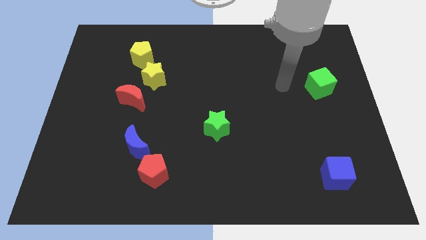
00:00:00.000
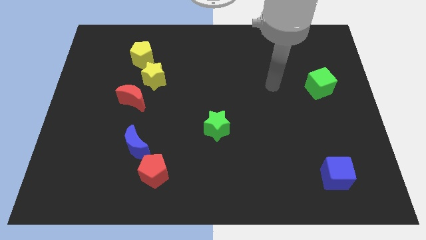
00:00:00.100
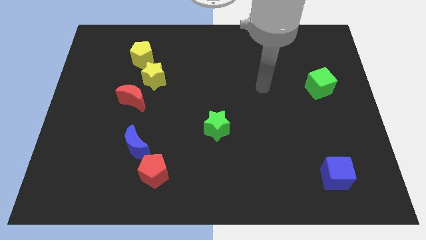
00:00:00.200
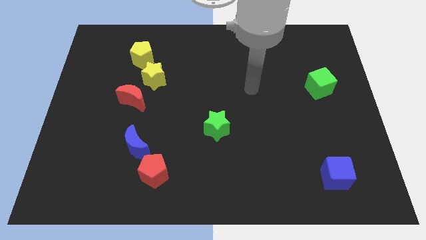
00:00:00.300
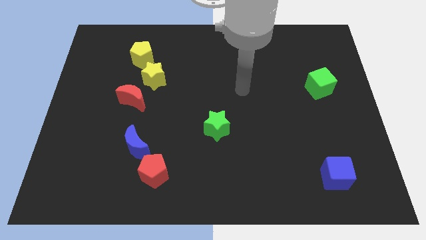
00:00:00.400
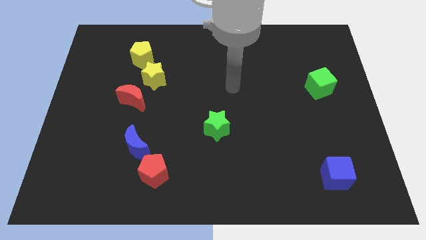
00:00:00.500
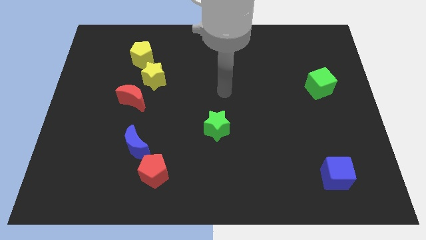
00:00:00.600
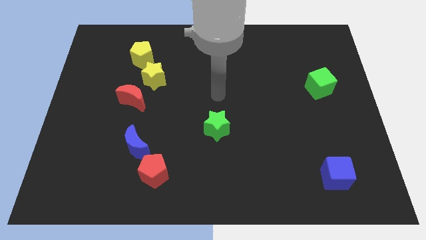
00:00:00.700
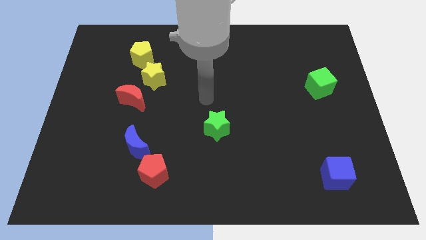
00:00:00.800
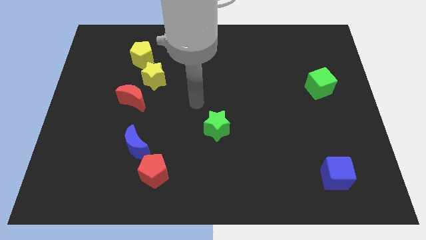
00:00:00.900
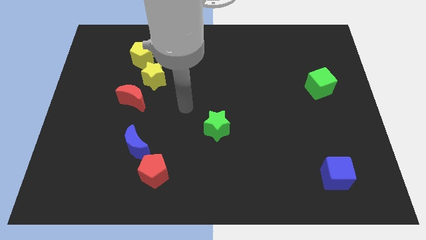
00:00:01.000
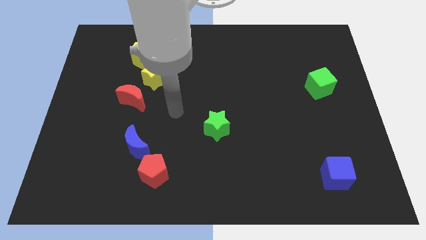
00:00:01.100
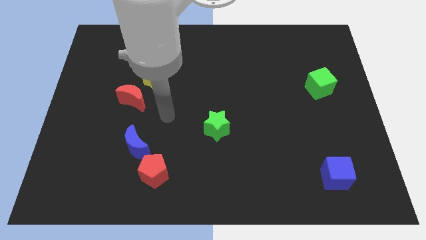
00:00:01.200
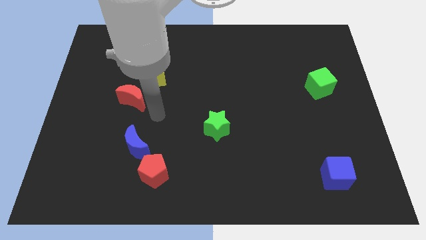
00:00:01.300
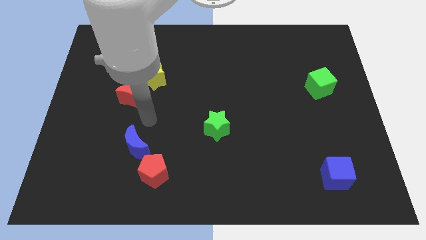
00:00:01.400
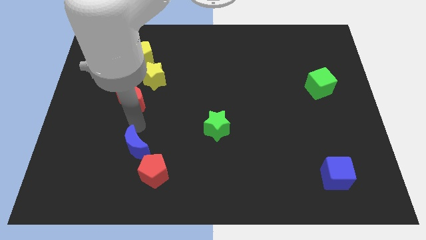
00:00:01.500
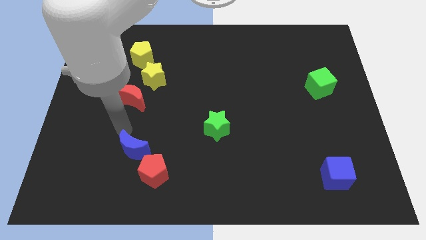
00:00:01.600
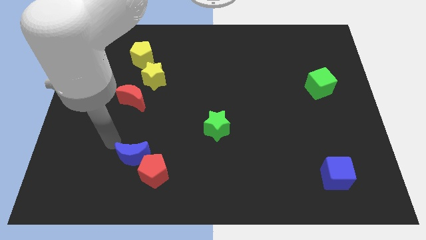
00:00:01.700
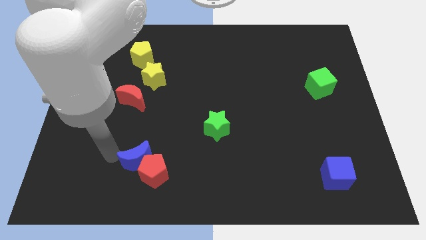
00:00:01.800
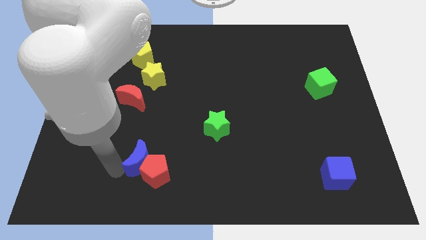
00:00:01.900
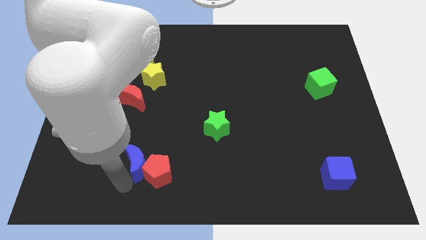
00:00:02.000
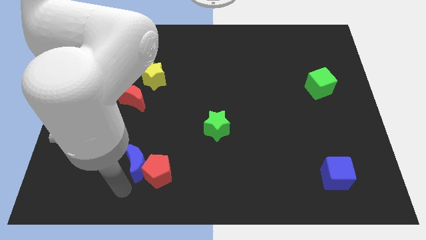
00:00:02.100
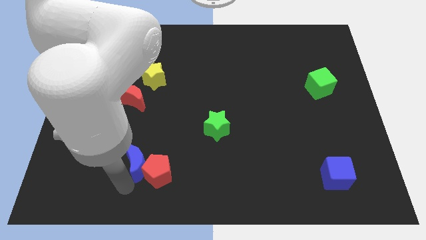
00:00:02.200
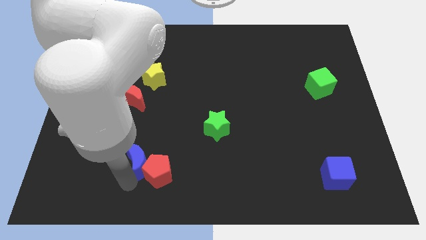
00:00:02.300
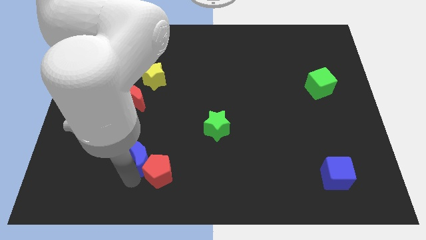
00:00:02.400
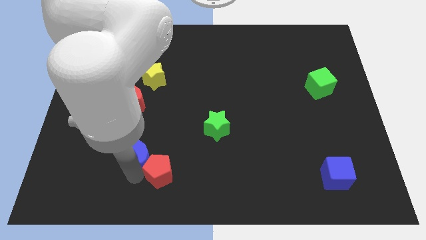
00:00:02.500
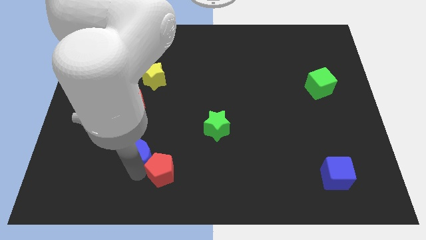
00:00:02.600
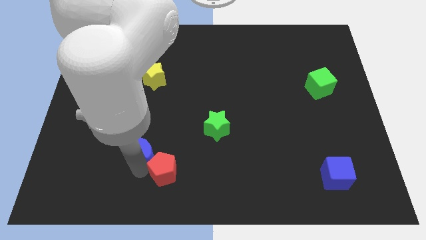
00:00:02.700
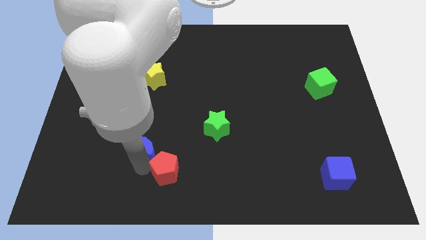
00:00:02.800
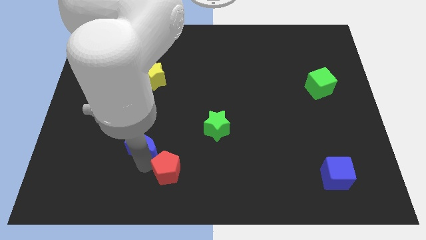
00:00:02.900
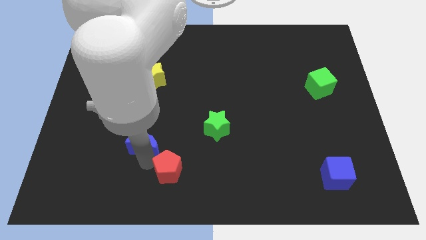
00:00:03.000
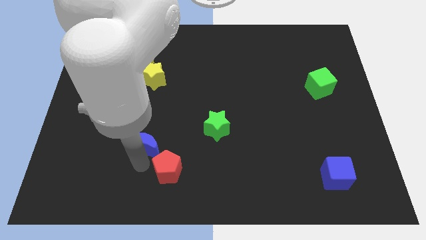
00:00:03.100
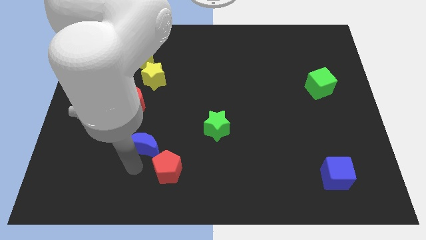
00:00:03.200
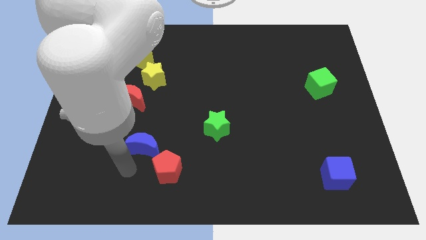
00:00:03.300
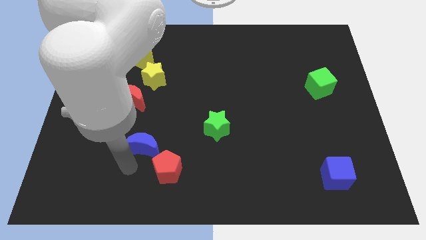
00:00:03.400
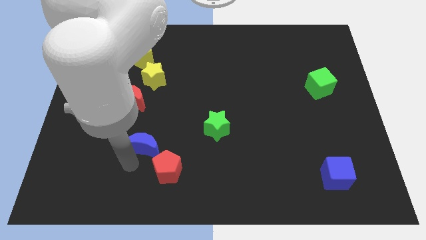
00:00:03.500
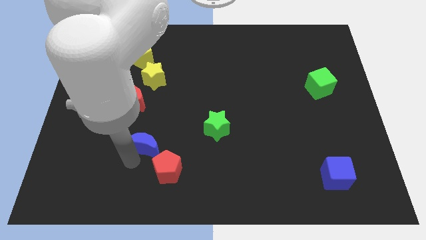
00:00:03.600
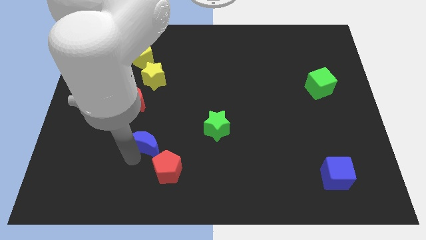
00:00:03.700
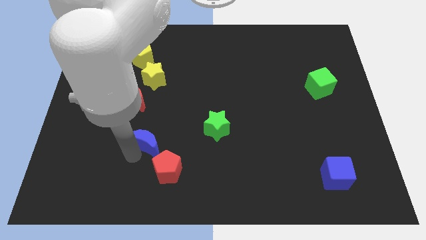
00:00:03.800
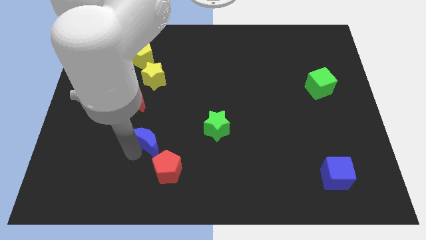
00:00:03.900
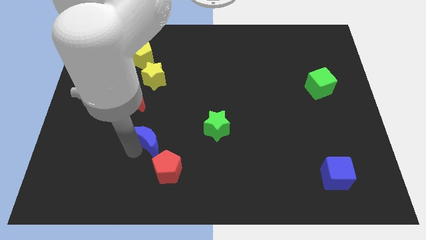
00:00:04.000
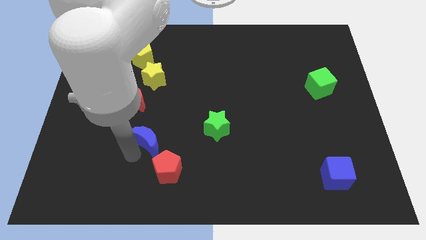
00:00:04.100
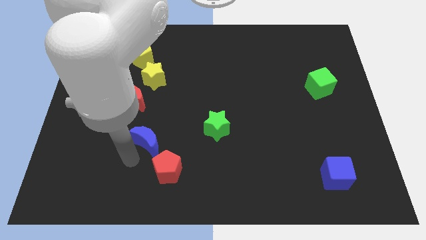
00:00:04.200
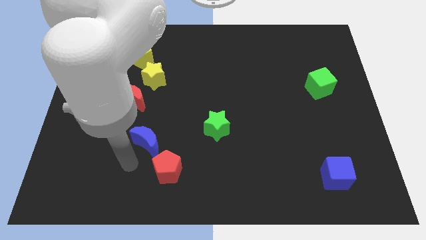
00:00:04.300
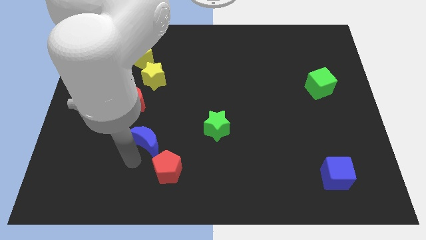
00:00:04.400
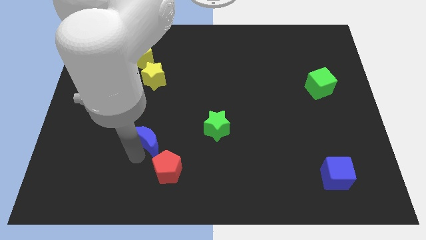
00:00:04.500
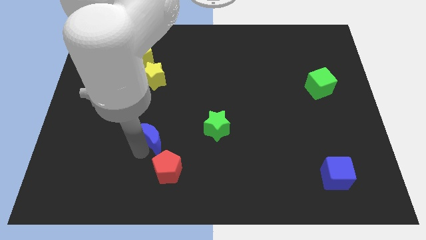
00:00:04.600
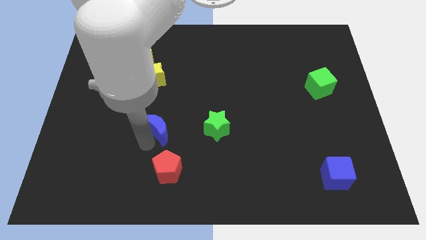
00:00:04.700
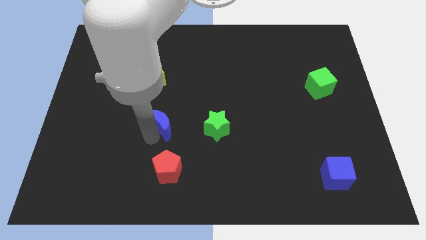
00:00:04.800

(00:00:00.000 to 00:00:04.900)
slide the blue moon a little bit up and right diagonally

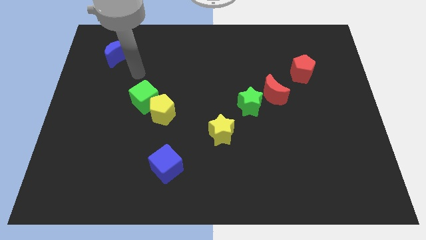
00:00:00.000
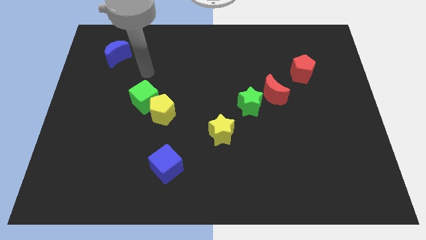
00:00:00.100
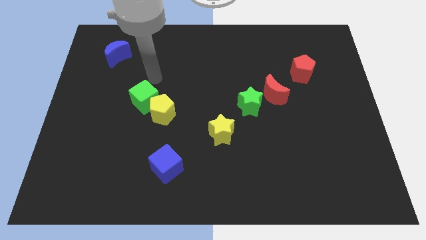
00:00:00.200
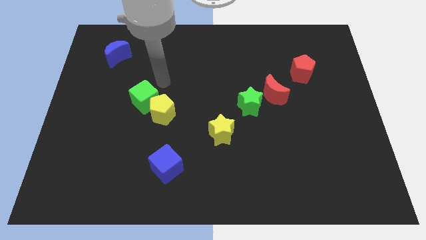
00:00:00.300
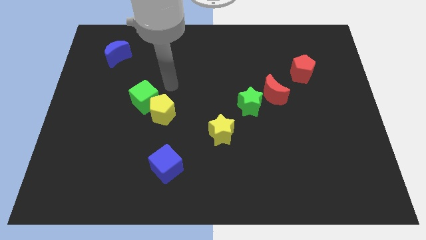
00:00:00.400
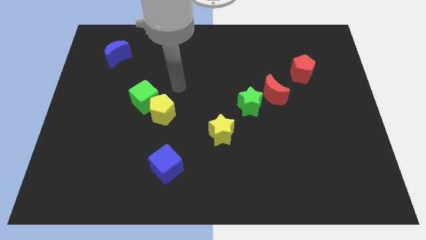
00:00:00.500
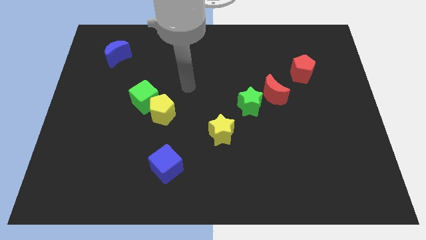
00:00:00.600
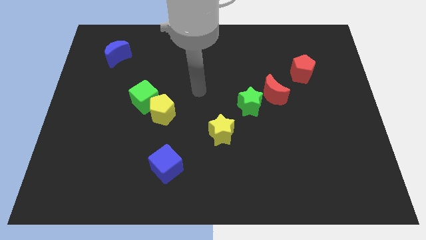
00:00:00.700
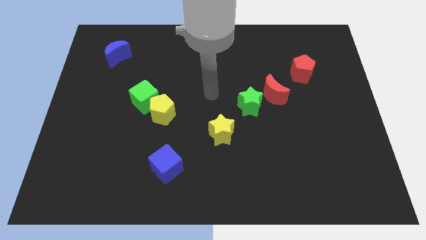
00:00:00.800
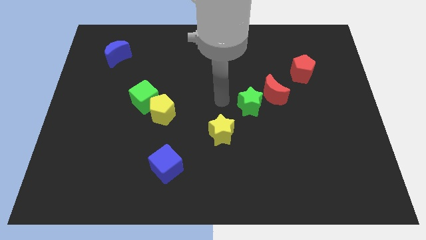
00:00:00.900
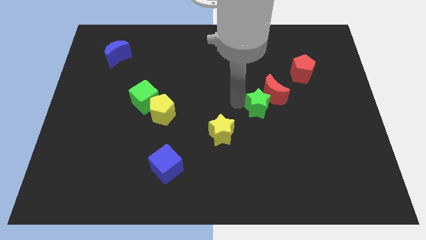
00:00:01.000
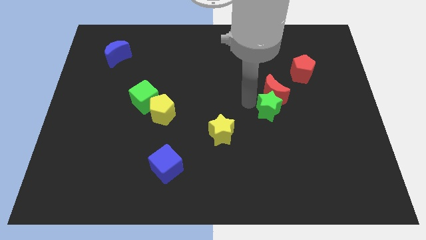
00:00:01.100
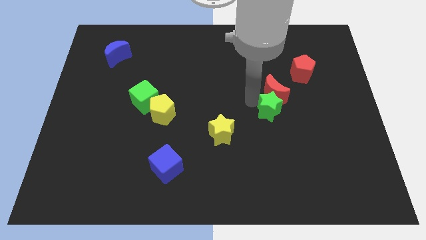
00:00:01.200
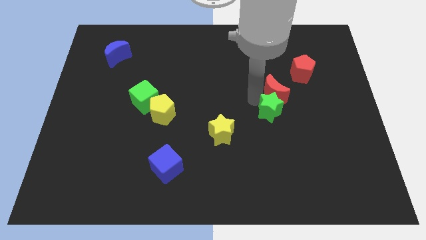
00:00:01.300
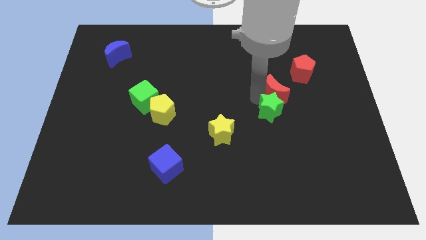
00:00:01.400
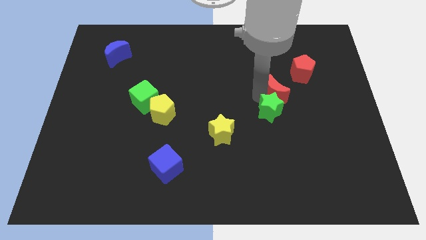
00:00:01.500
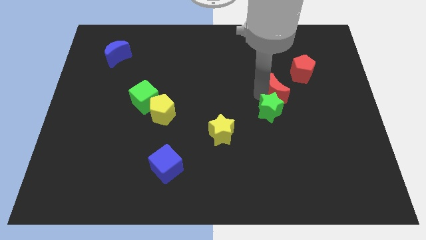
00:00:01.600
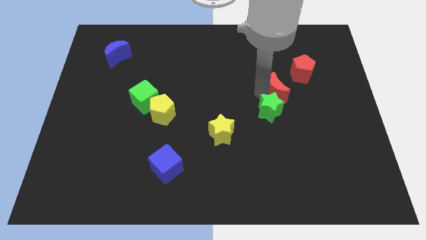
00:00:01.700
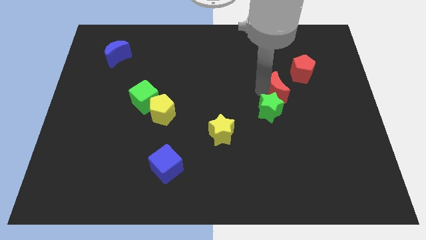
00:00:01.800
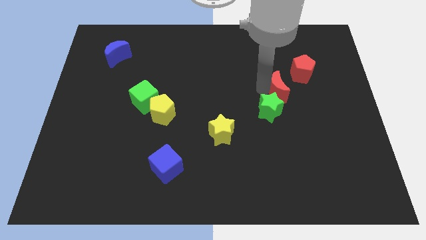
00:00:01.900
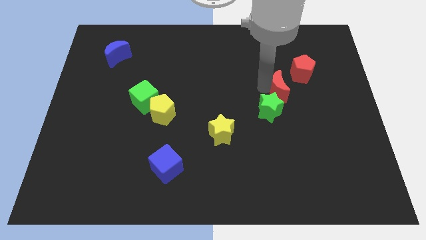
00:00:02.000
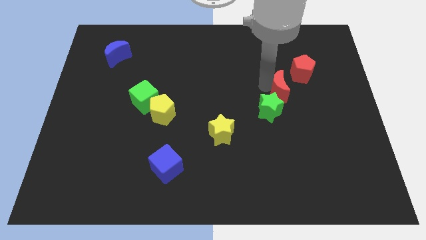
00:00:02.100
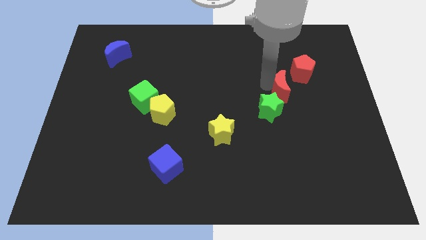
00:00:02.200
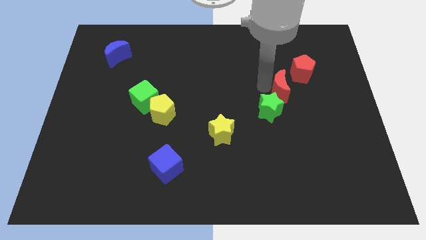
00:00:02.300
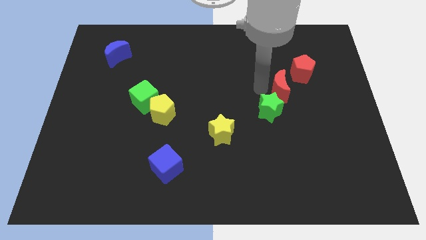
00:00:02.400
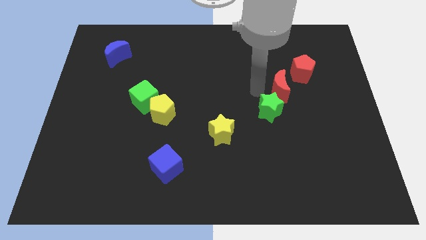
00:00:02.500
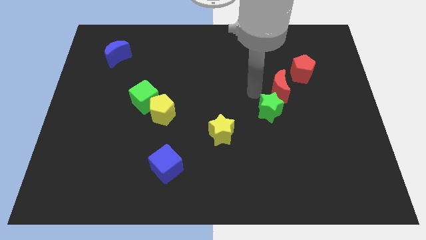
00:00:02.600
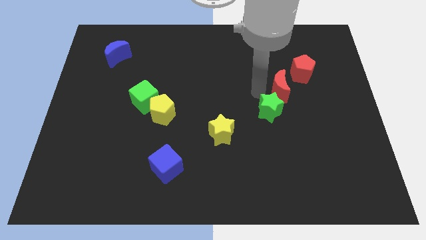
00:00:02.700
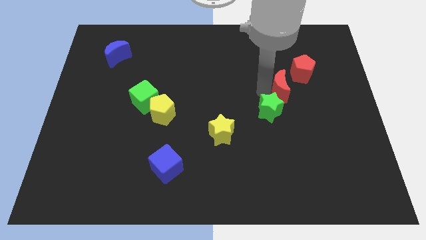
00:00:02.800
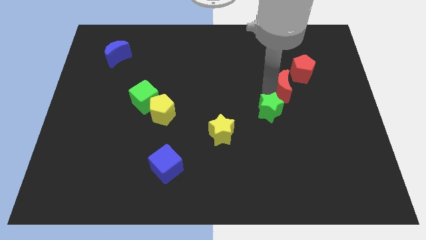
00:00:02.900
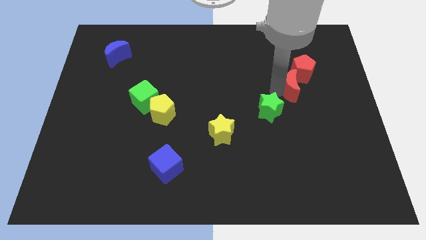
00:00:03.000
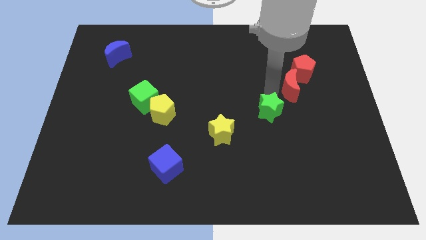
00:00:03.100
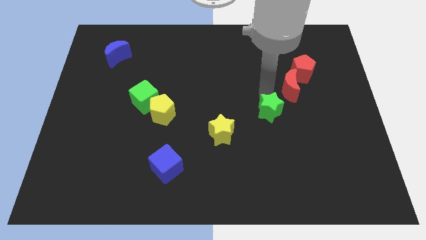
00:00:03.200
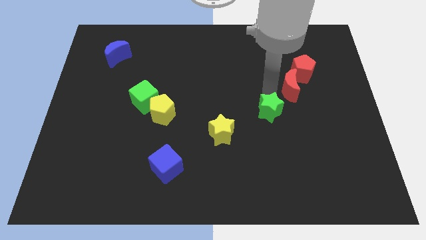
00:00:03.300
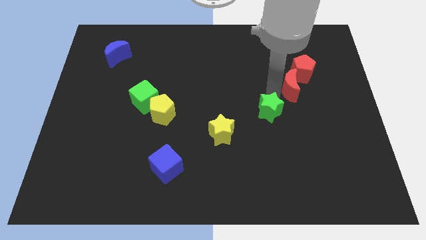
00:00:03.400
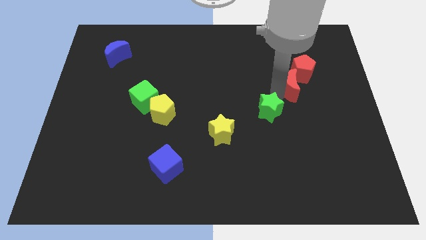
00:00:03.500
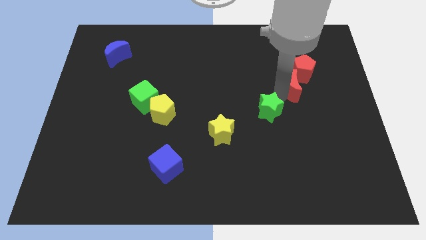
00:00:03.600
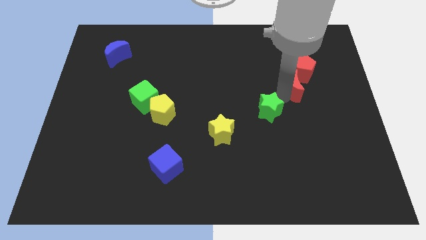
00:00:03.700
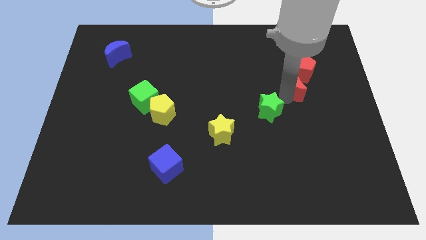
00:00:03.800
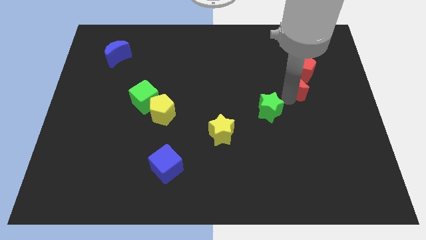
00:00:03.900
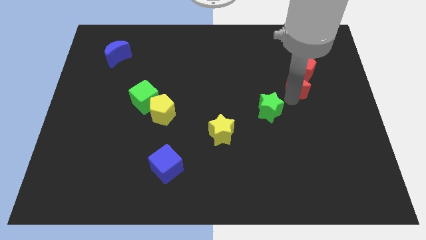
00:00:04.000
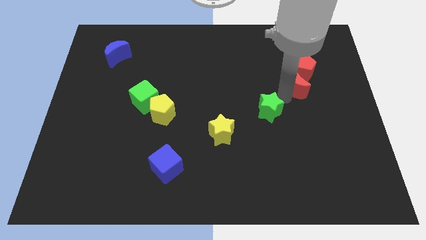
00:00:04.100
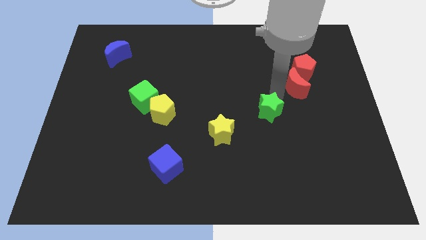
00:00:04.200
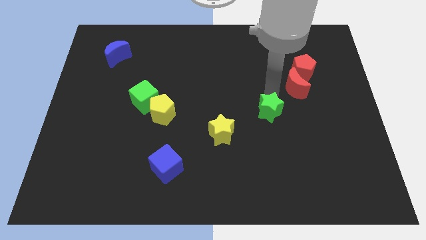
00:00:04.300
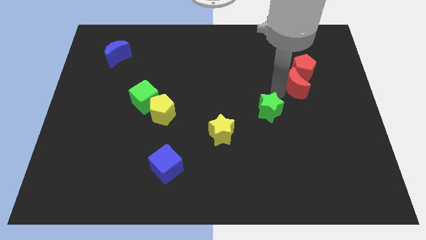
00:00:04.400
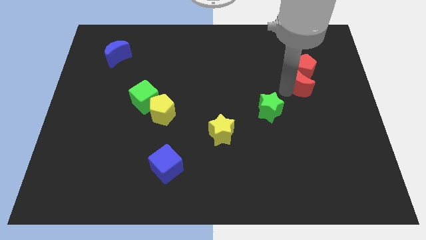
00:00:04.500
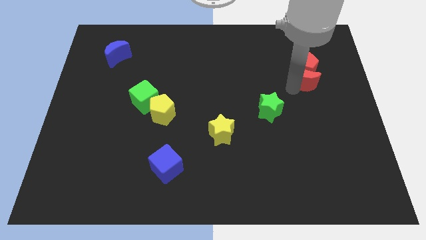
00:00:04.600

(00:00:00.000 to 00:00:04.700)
slightly push the red moon upwards and to the right
